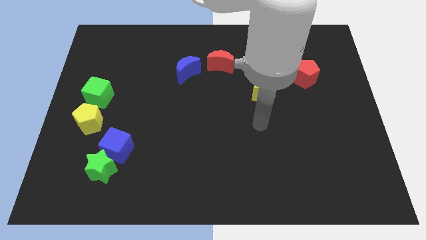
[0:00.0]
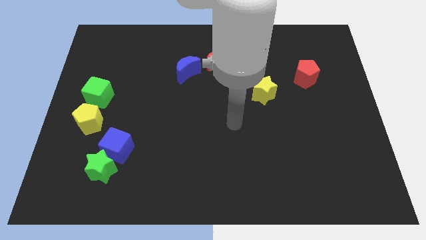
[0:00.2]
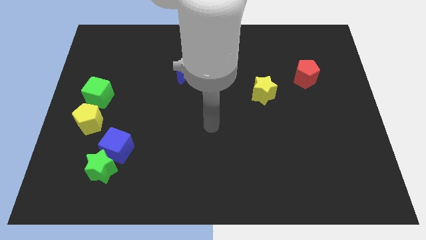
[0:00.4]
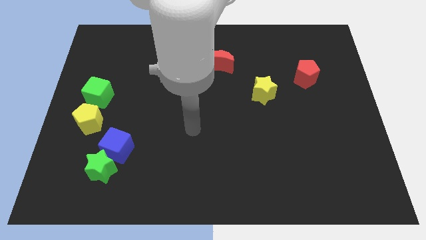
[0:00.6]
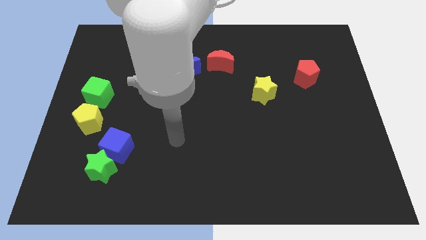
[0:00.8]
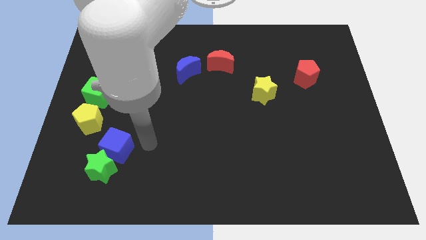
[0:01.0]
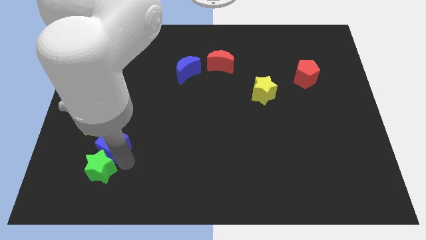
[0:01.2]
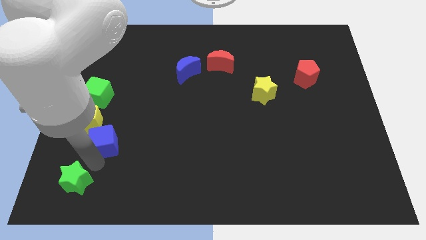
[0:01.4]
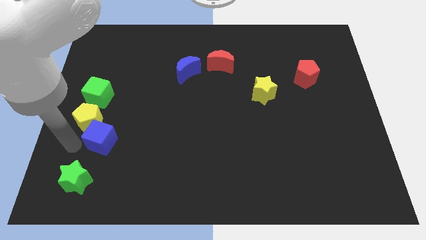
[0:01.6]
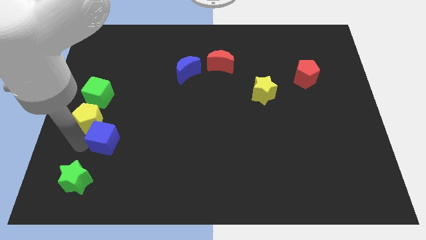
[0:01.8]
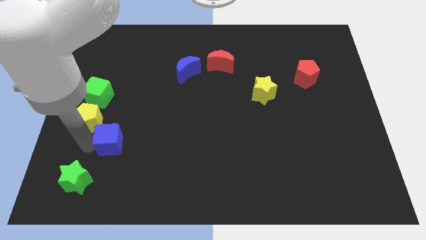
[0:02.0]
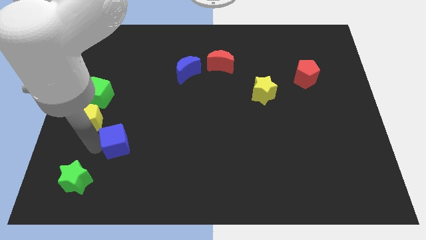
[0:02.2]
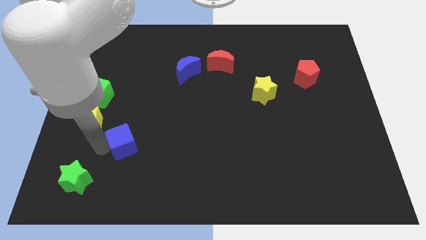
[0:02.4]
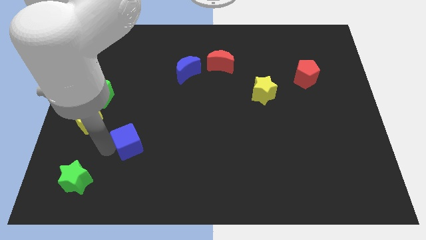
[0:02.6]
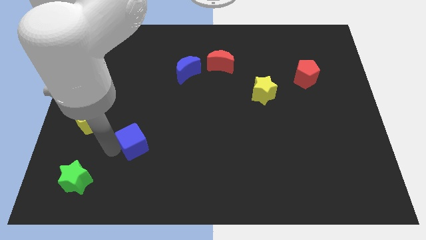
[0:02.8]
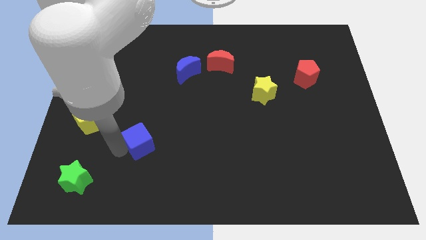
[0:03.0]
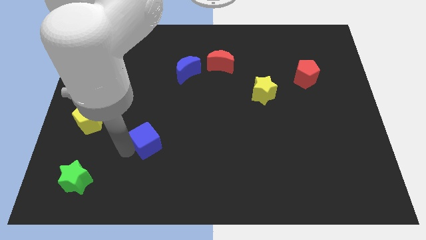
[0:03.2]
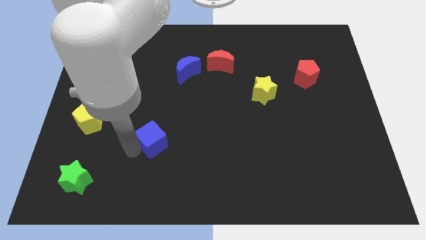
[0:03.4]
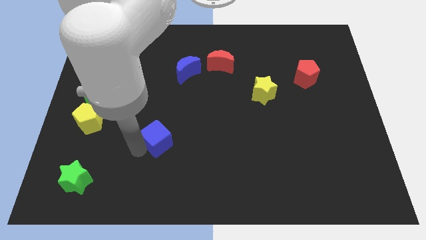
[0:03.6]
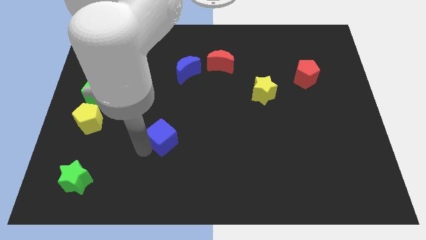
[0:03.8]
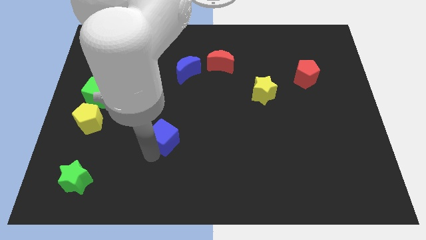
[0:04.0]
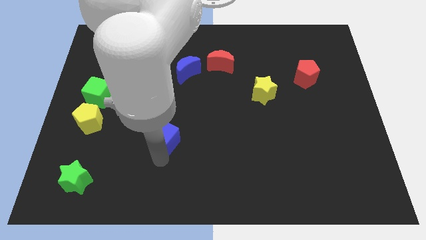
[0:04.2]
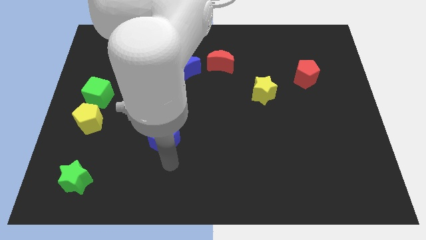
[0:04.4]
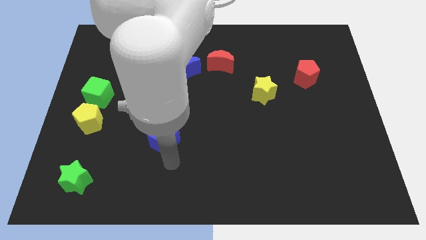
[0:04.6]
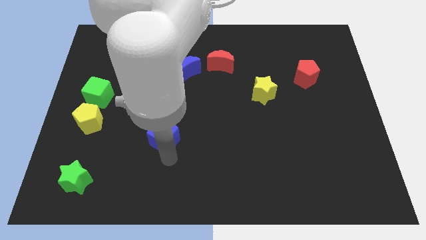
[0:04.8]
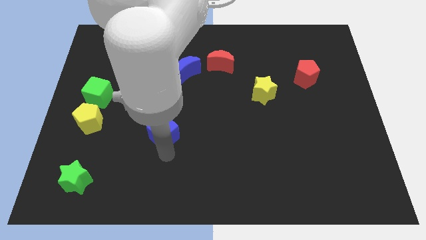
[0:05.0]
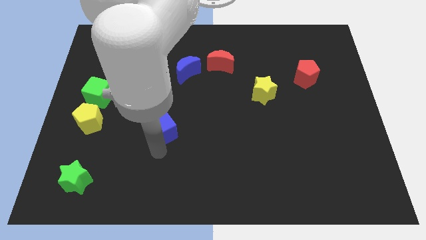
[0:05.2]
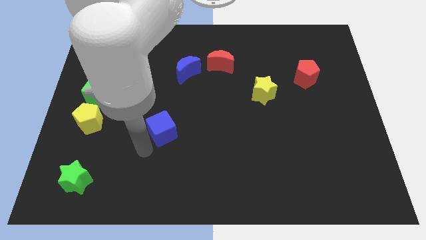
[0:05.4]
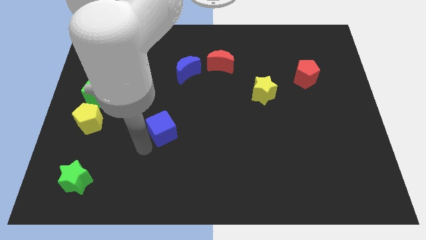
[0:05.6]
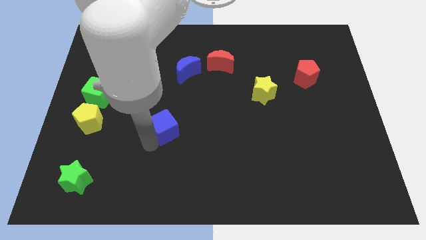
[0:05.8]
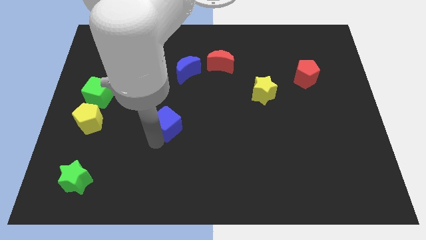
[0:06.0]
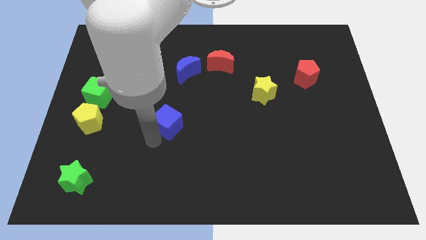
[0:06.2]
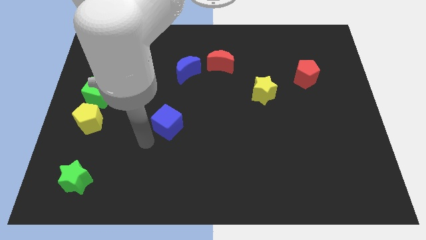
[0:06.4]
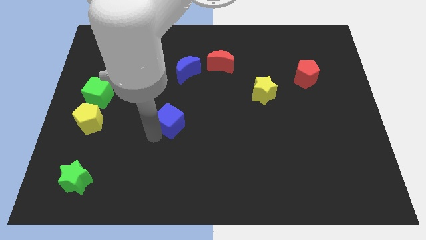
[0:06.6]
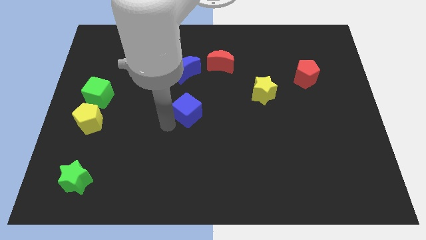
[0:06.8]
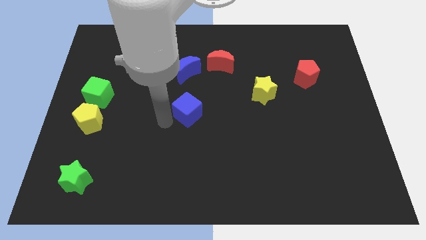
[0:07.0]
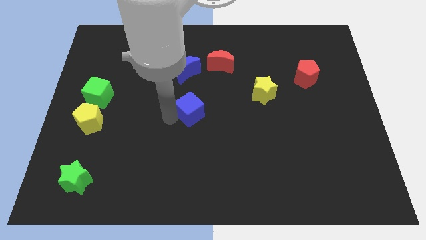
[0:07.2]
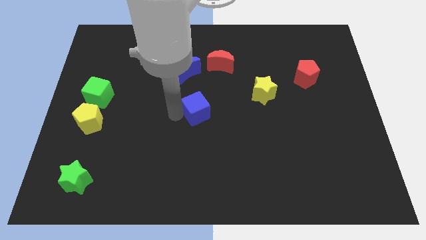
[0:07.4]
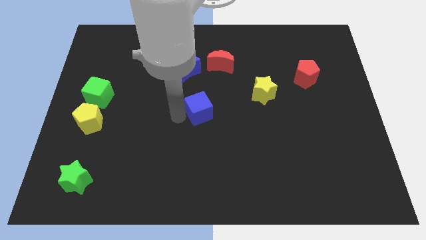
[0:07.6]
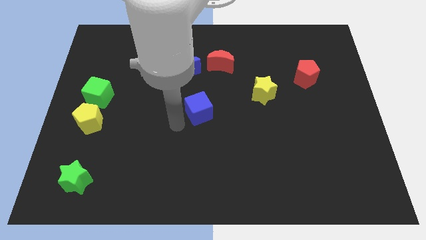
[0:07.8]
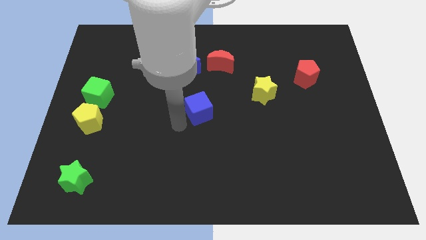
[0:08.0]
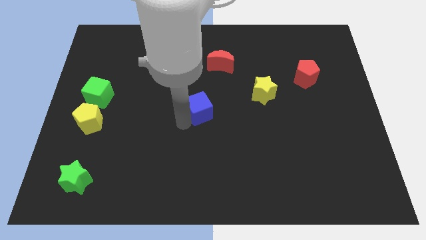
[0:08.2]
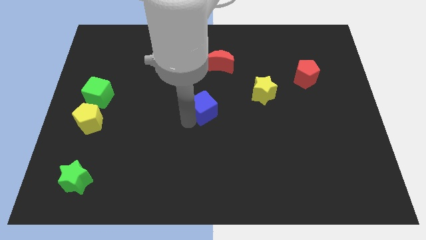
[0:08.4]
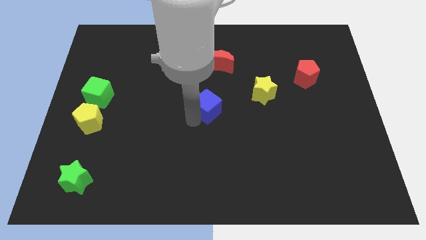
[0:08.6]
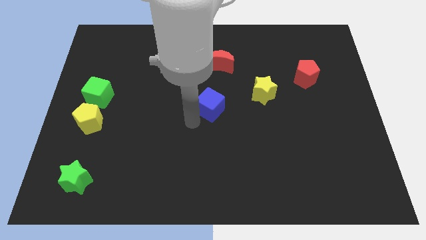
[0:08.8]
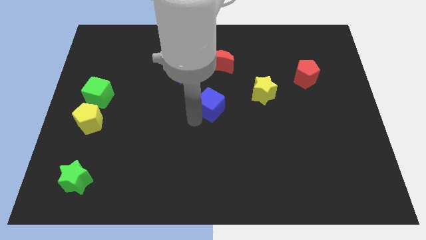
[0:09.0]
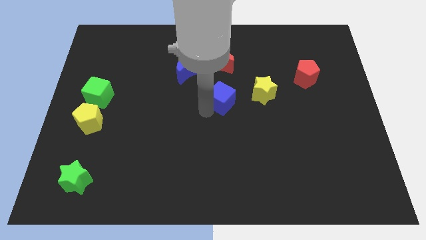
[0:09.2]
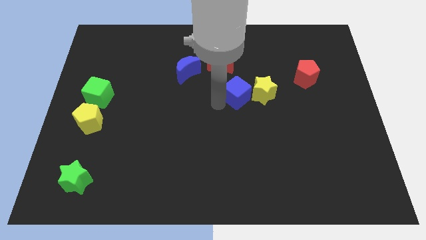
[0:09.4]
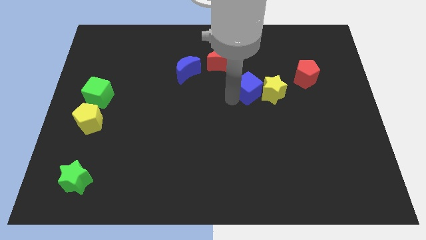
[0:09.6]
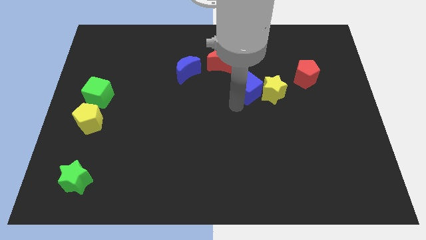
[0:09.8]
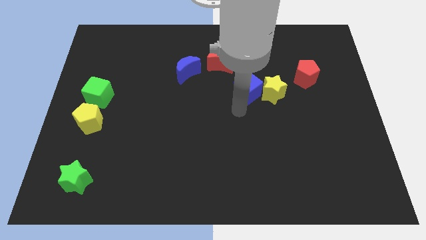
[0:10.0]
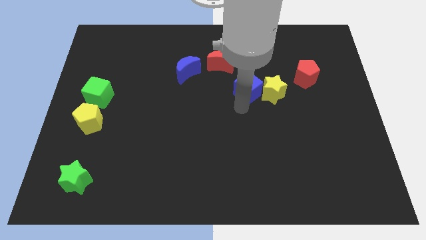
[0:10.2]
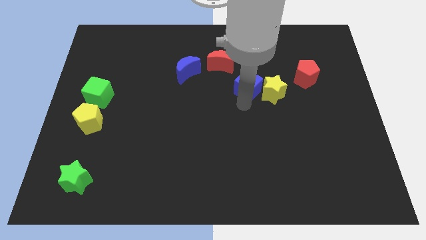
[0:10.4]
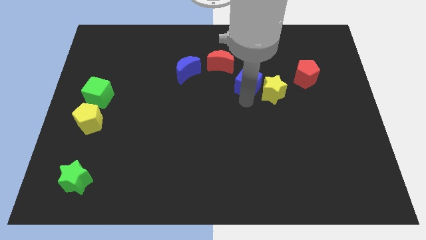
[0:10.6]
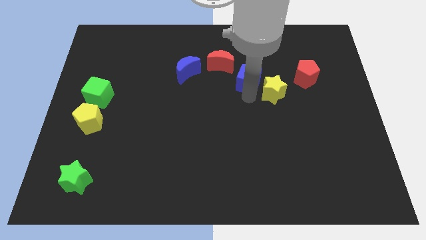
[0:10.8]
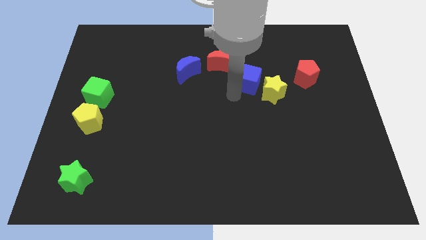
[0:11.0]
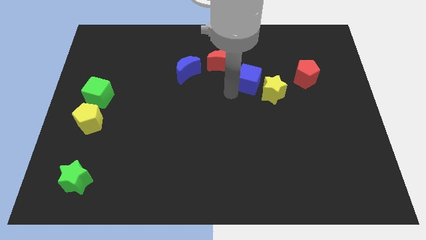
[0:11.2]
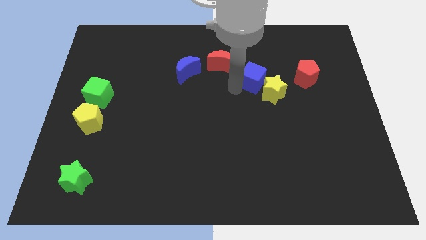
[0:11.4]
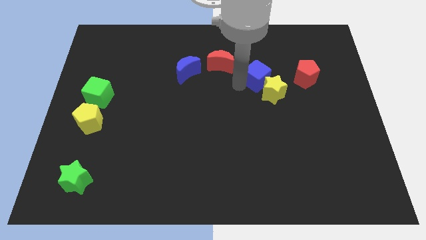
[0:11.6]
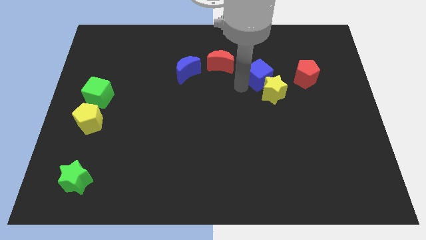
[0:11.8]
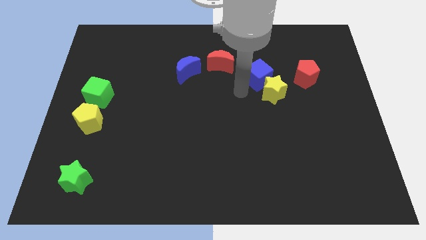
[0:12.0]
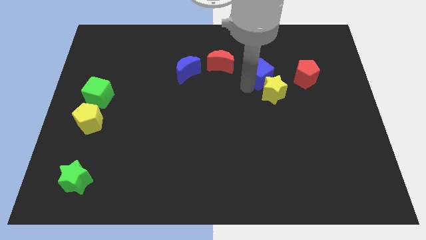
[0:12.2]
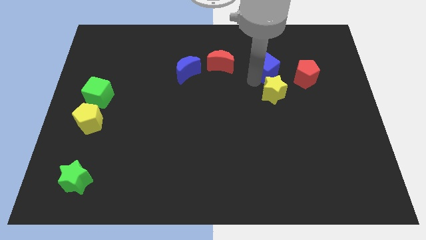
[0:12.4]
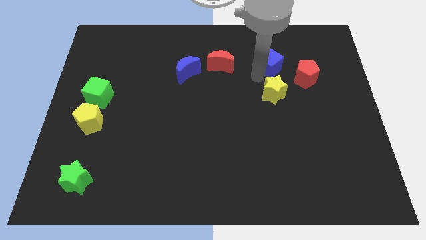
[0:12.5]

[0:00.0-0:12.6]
put the blue cube to the top left side of the red pentagon

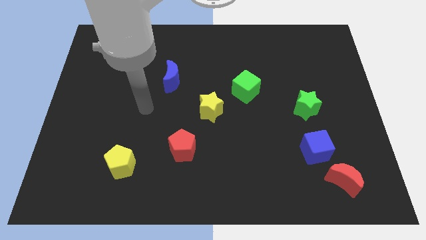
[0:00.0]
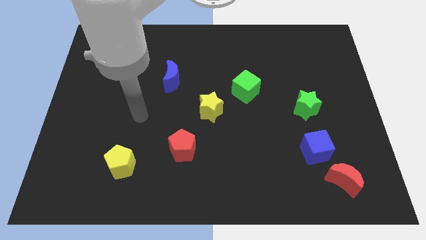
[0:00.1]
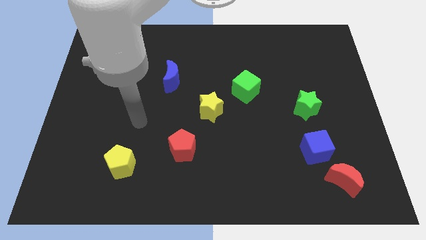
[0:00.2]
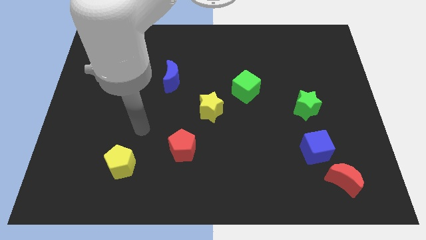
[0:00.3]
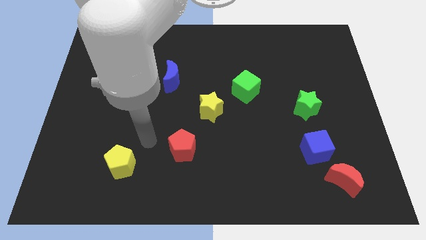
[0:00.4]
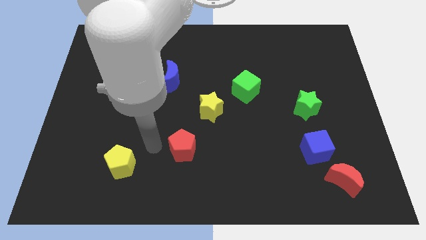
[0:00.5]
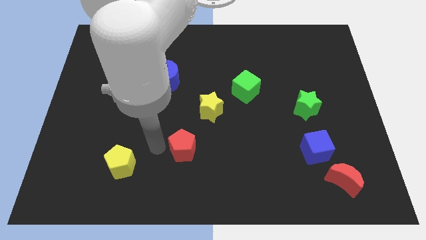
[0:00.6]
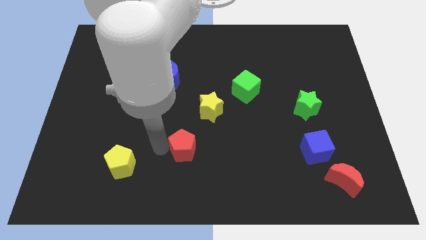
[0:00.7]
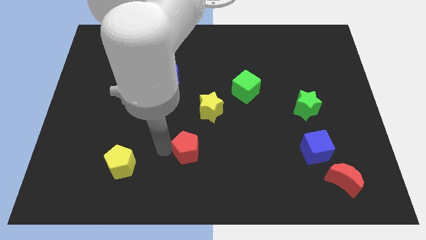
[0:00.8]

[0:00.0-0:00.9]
move the red pentagon to the bottom side of the yellow star
